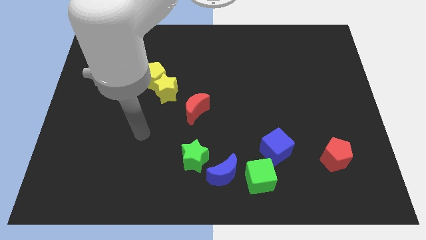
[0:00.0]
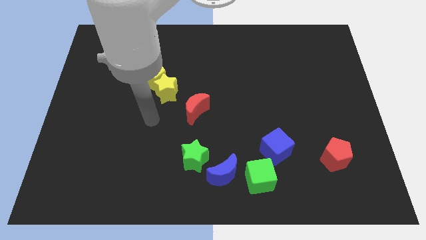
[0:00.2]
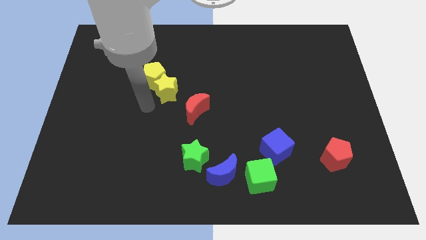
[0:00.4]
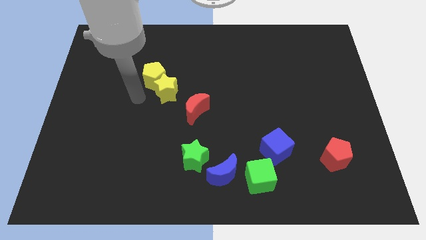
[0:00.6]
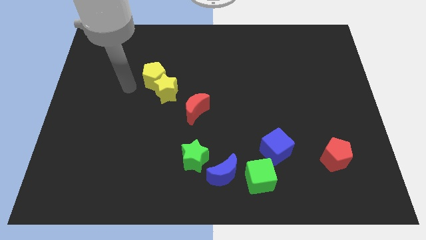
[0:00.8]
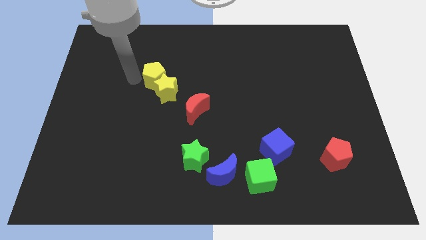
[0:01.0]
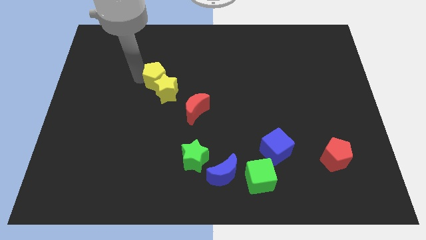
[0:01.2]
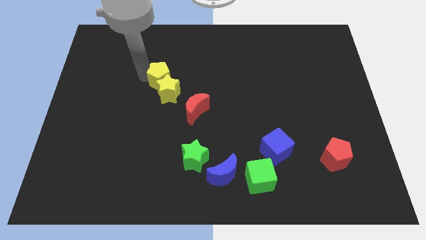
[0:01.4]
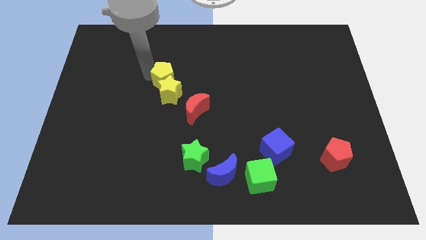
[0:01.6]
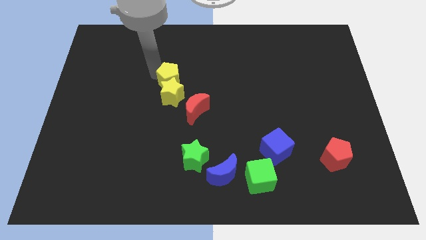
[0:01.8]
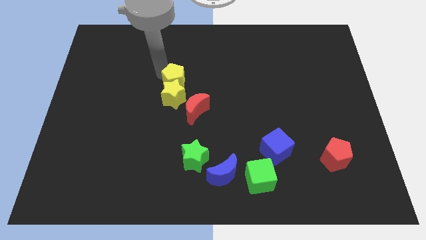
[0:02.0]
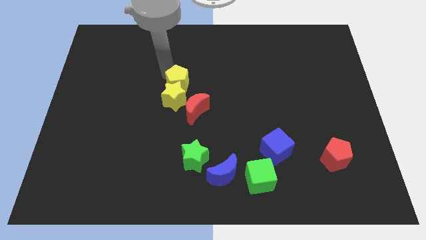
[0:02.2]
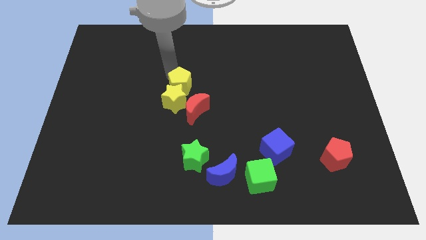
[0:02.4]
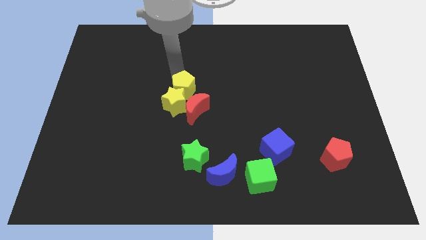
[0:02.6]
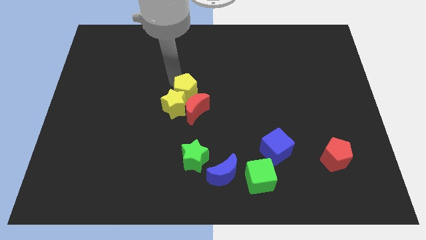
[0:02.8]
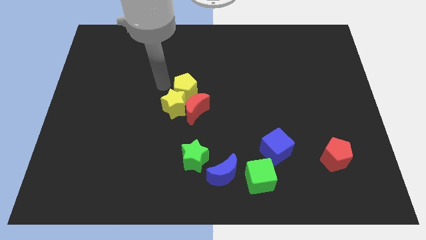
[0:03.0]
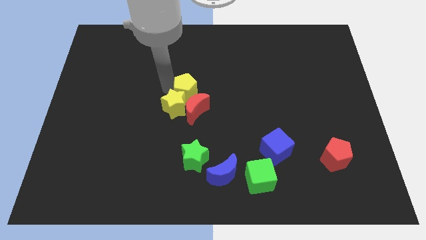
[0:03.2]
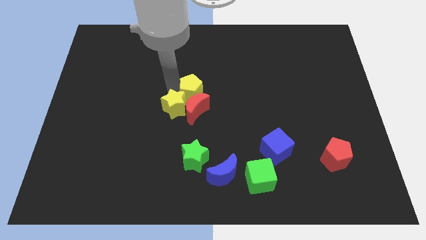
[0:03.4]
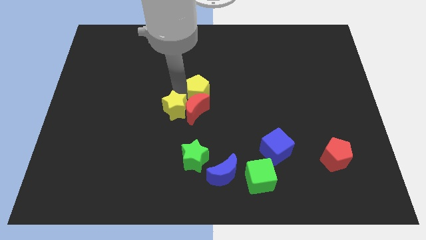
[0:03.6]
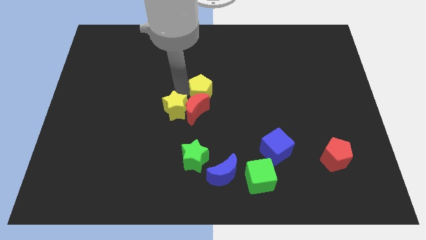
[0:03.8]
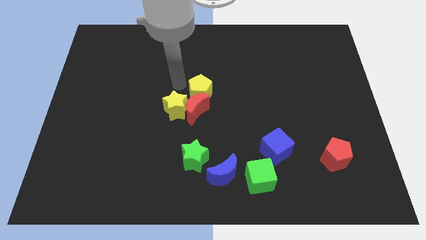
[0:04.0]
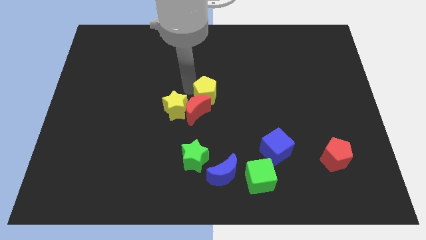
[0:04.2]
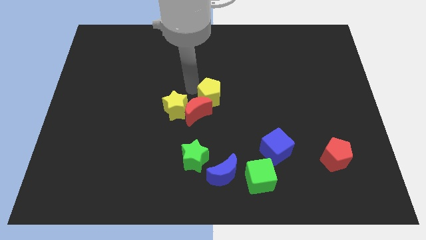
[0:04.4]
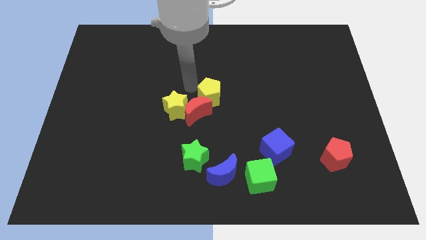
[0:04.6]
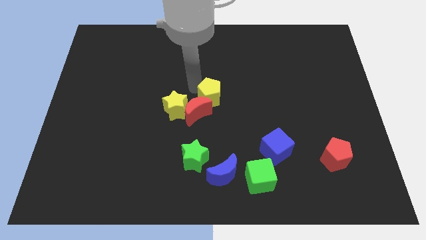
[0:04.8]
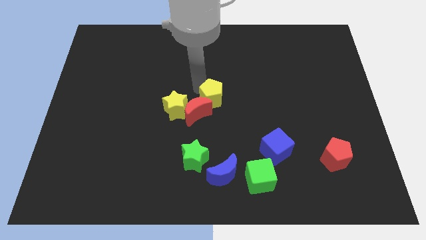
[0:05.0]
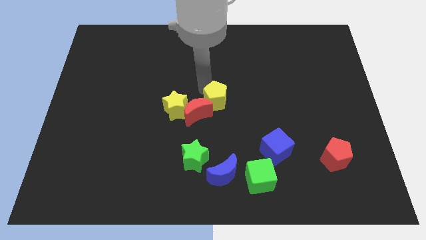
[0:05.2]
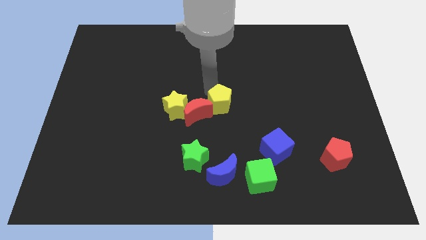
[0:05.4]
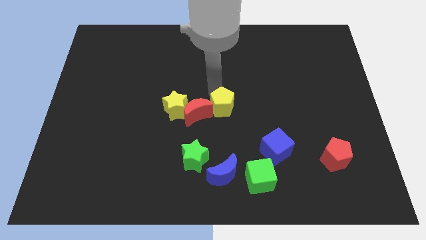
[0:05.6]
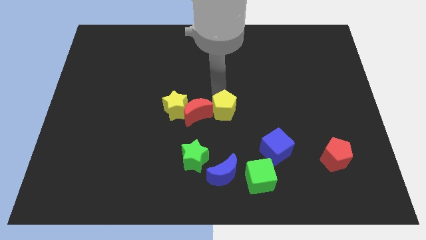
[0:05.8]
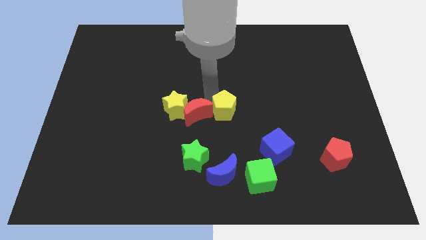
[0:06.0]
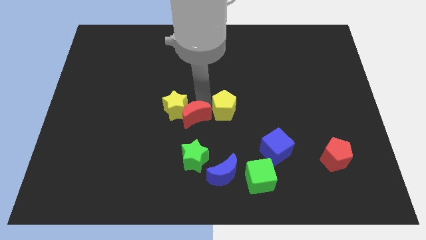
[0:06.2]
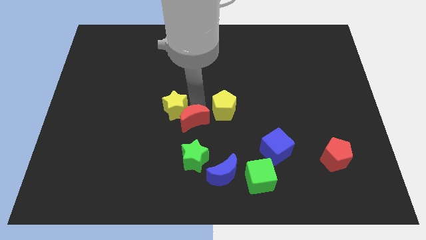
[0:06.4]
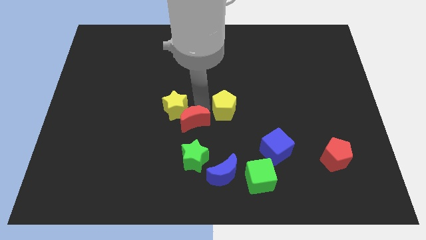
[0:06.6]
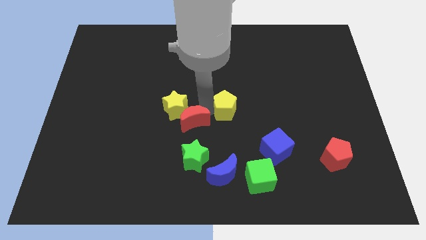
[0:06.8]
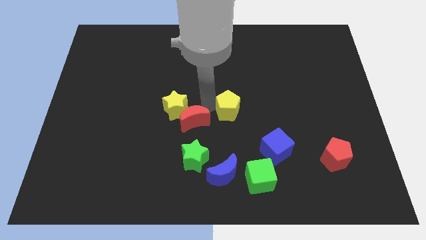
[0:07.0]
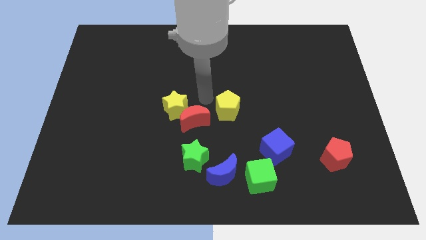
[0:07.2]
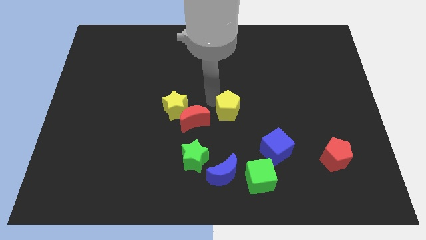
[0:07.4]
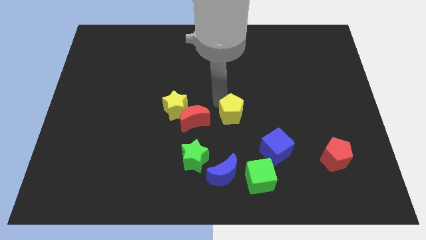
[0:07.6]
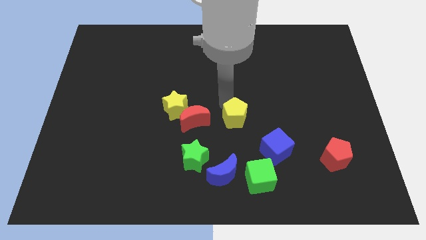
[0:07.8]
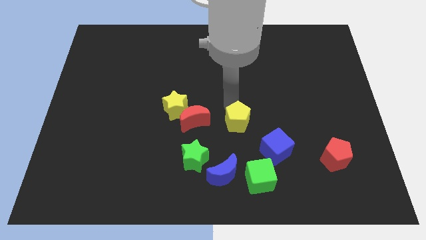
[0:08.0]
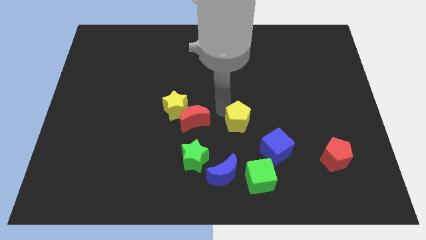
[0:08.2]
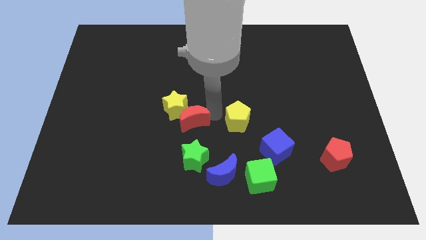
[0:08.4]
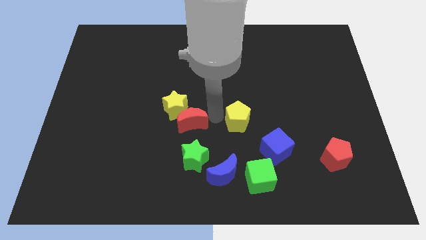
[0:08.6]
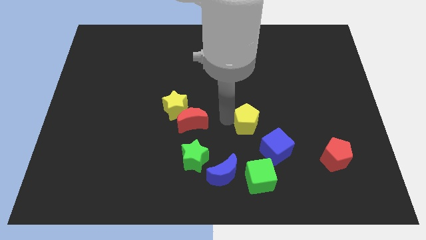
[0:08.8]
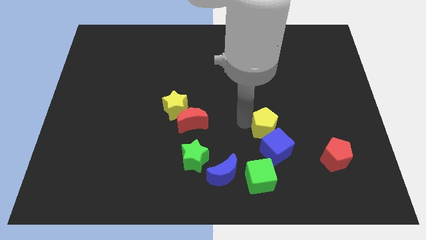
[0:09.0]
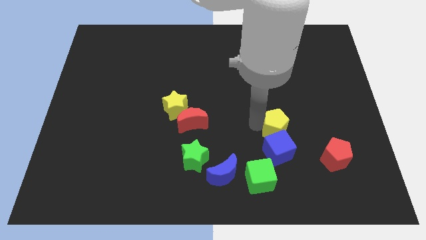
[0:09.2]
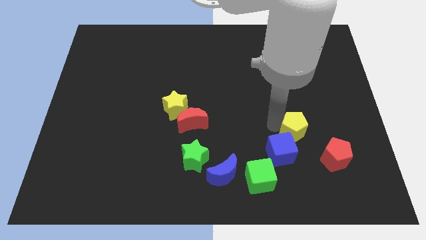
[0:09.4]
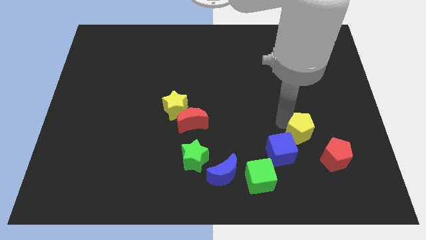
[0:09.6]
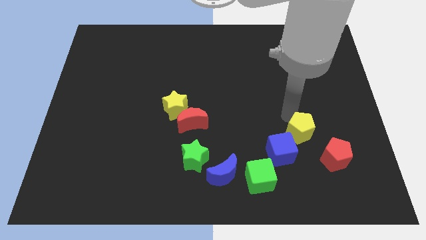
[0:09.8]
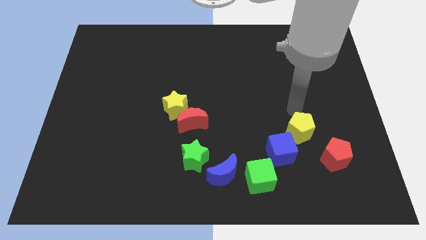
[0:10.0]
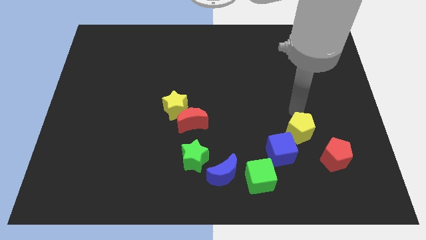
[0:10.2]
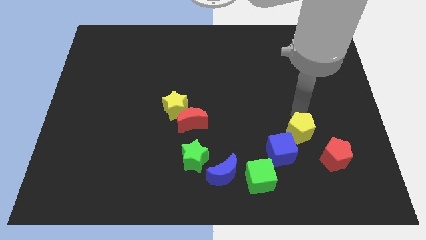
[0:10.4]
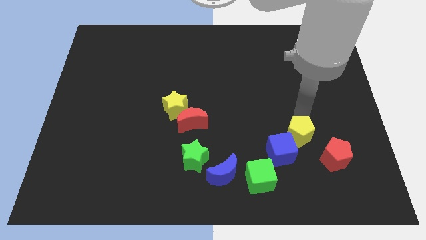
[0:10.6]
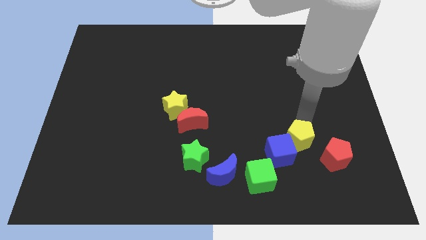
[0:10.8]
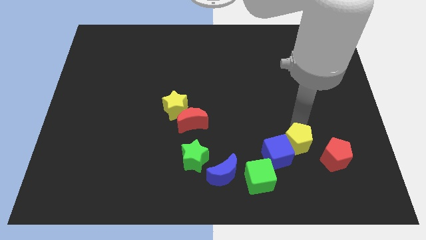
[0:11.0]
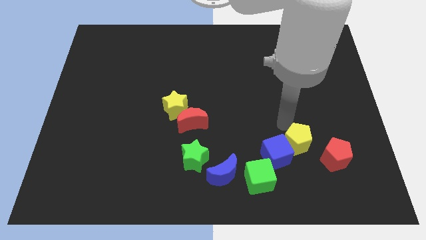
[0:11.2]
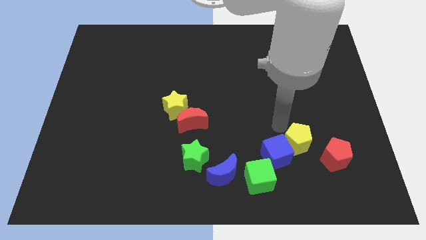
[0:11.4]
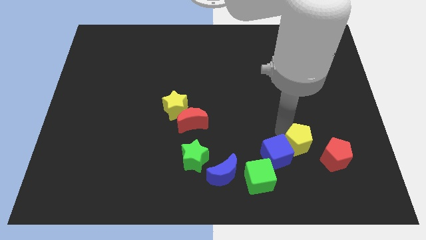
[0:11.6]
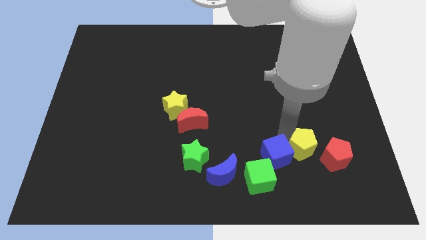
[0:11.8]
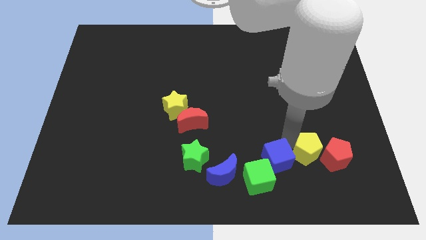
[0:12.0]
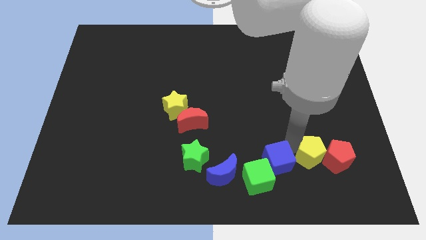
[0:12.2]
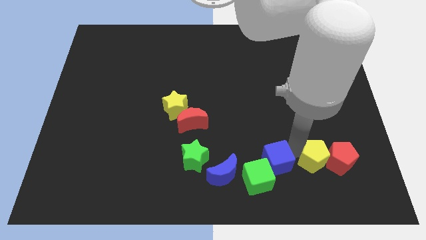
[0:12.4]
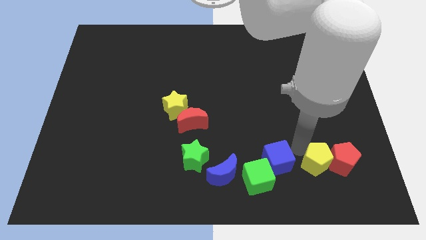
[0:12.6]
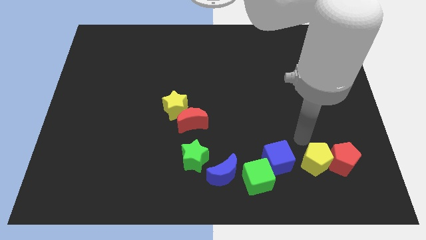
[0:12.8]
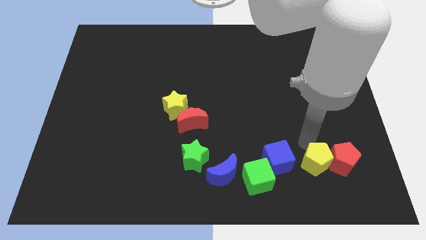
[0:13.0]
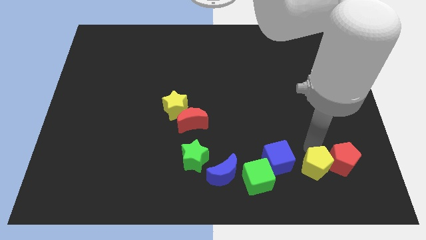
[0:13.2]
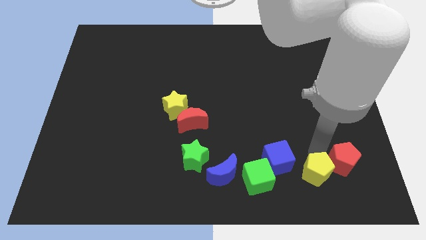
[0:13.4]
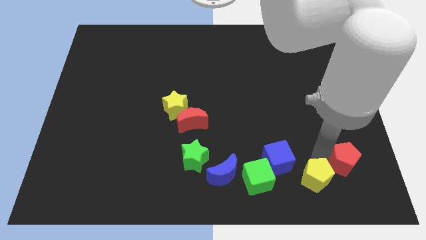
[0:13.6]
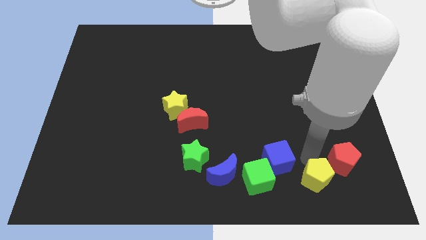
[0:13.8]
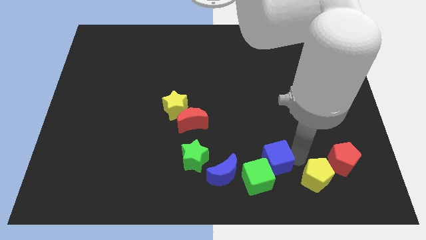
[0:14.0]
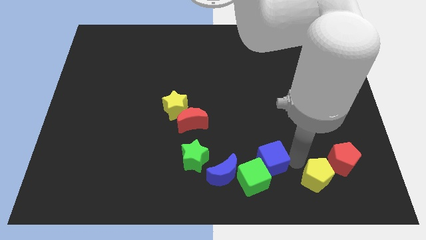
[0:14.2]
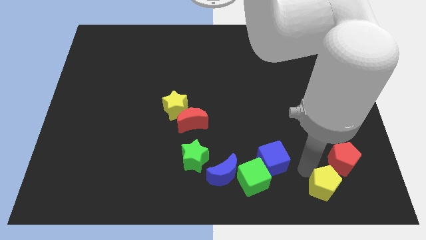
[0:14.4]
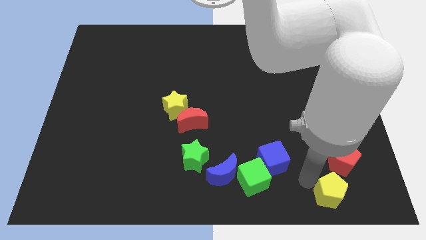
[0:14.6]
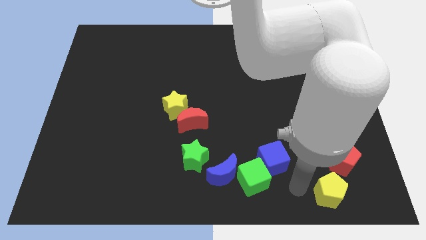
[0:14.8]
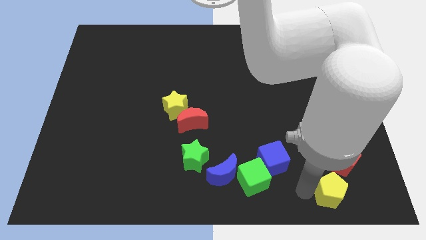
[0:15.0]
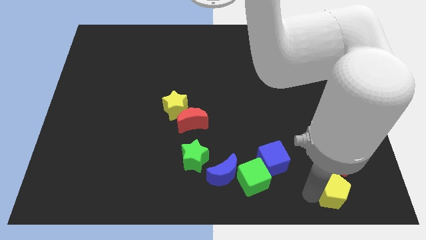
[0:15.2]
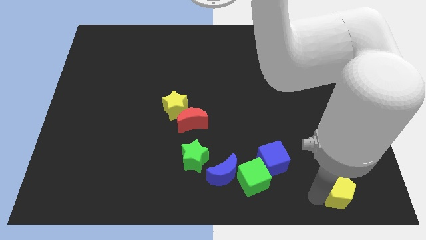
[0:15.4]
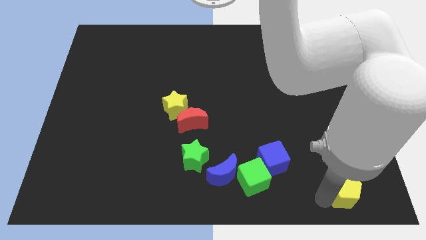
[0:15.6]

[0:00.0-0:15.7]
move the yellow pentagon to the bottom right corner
